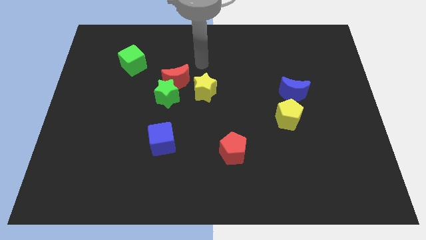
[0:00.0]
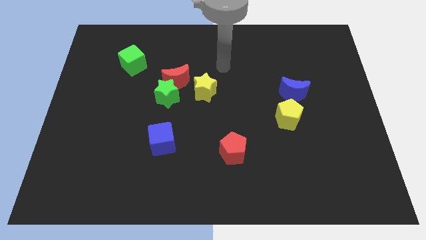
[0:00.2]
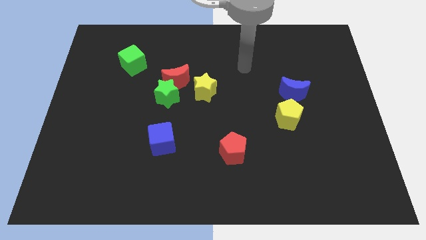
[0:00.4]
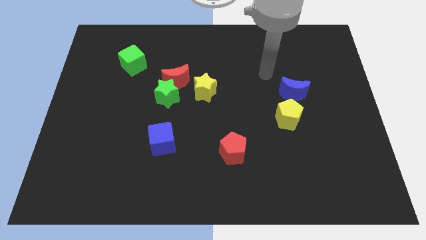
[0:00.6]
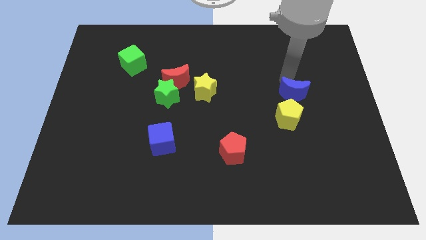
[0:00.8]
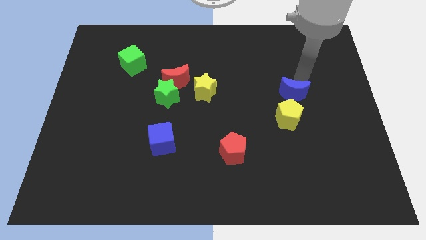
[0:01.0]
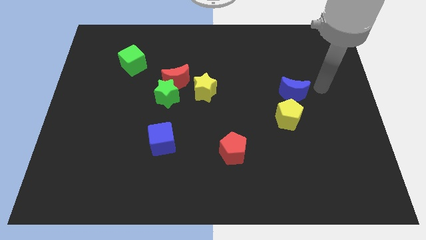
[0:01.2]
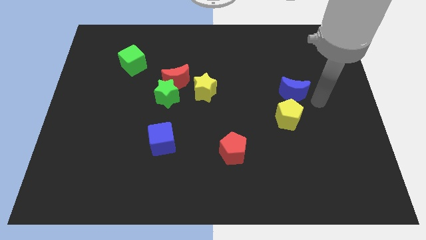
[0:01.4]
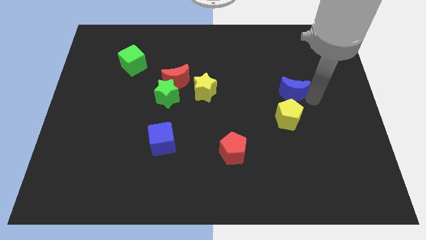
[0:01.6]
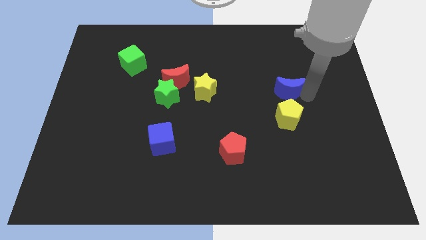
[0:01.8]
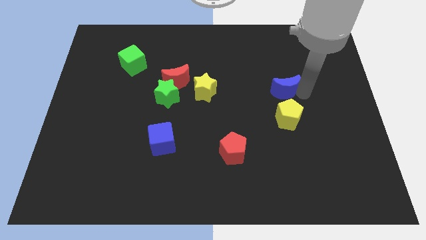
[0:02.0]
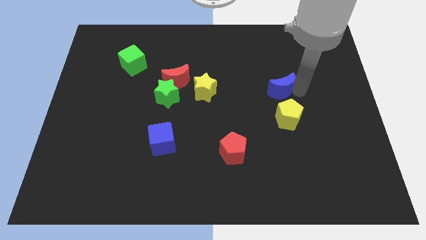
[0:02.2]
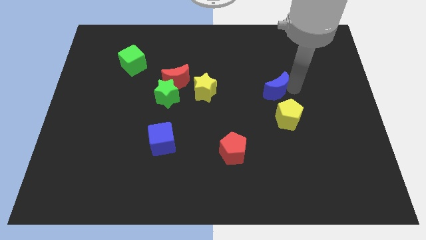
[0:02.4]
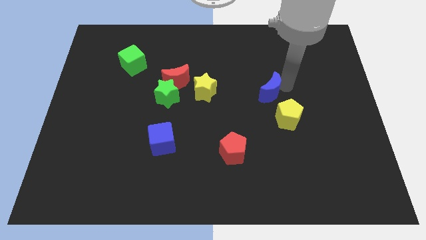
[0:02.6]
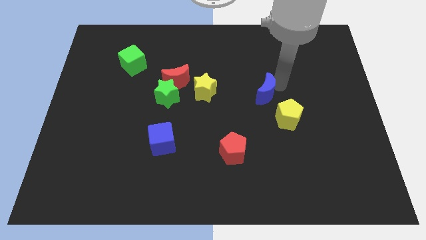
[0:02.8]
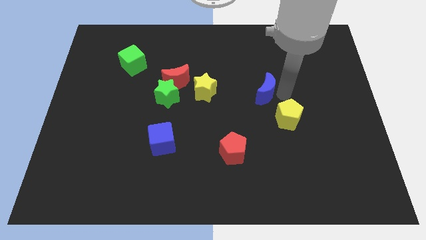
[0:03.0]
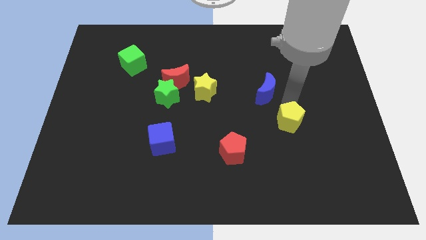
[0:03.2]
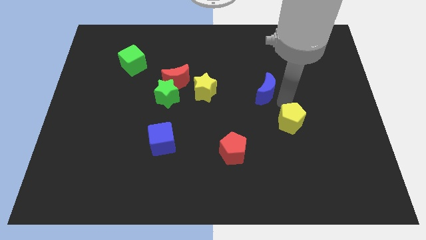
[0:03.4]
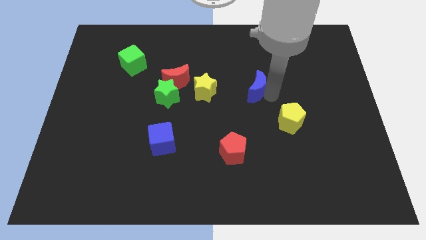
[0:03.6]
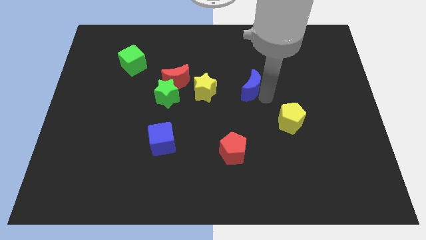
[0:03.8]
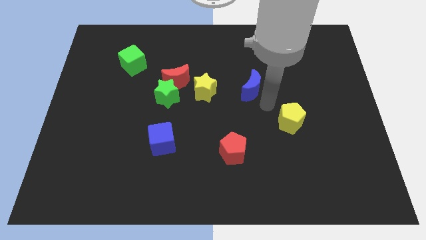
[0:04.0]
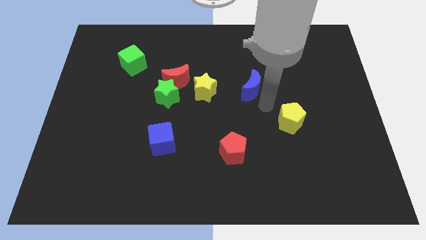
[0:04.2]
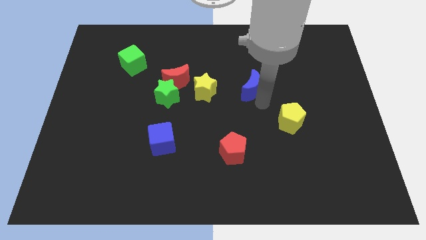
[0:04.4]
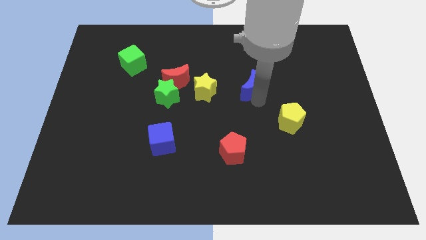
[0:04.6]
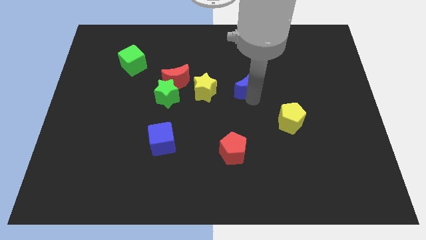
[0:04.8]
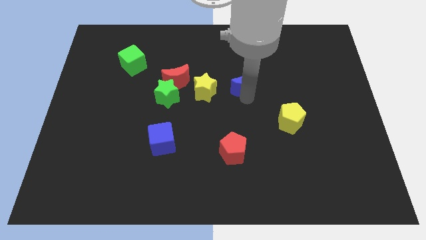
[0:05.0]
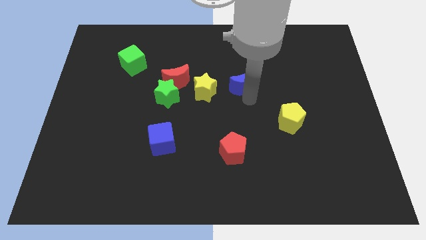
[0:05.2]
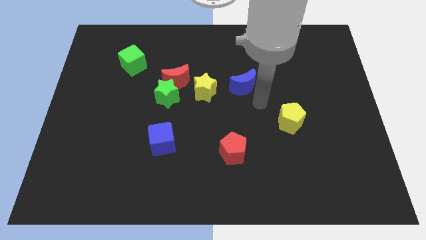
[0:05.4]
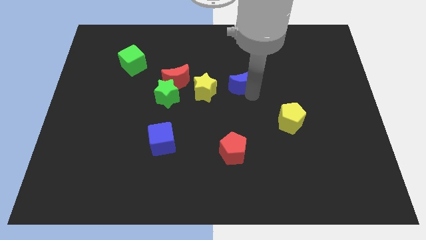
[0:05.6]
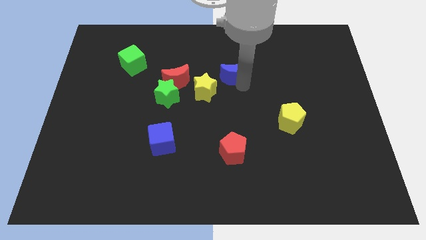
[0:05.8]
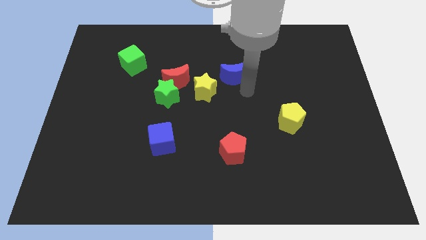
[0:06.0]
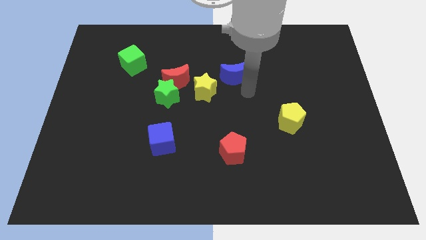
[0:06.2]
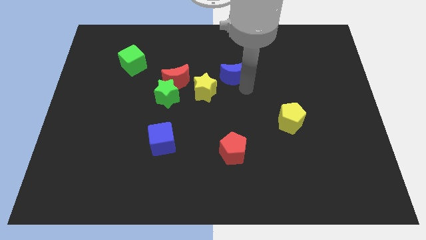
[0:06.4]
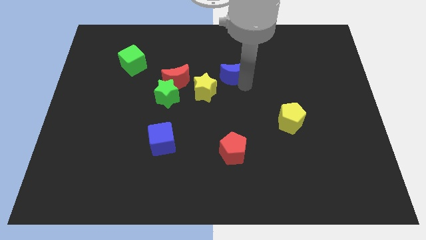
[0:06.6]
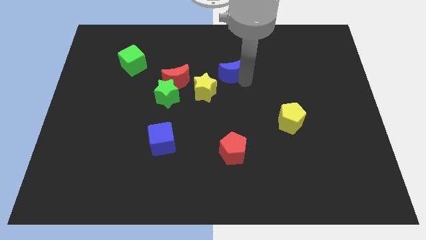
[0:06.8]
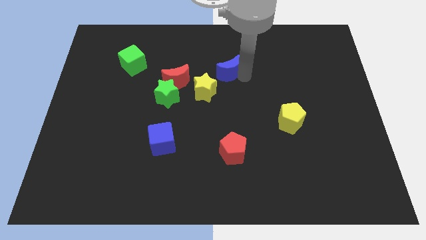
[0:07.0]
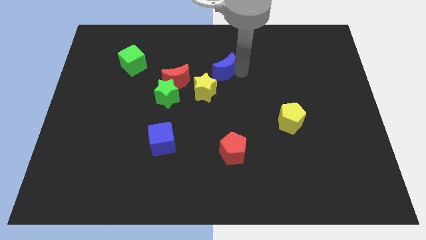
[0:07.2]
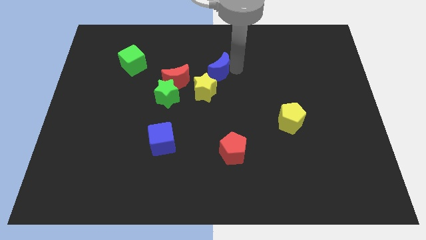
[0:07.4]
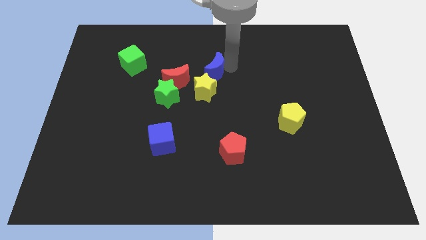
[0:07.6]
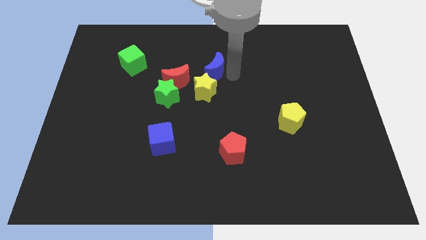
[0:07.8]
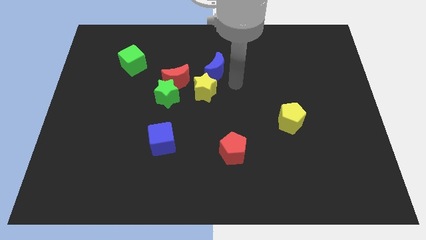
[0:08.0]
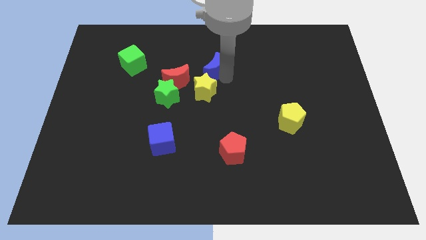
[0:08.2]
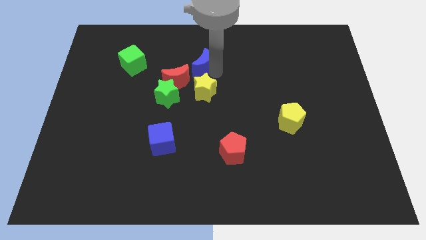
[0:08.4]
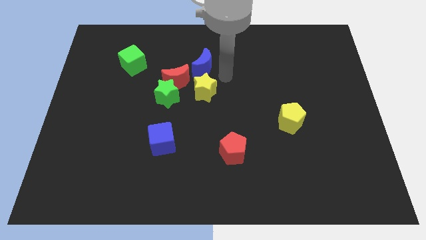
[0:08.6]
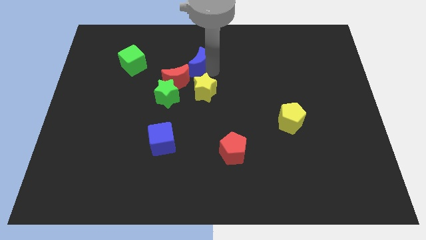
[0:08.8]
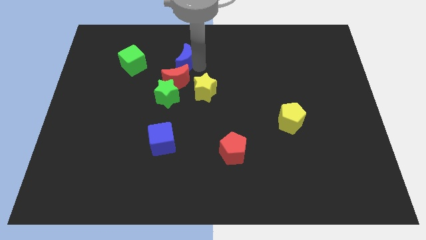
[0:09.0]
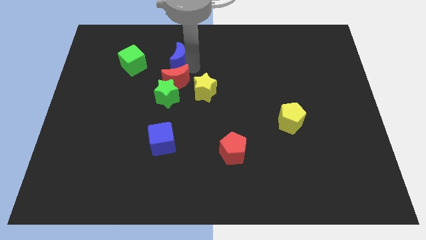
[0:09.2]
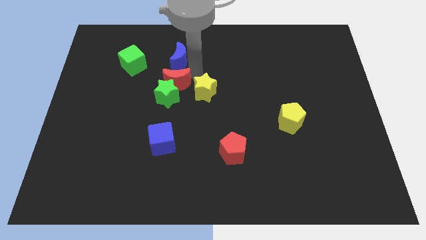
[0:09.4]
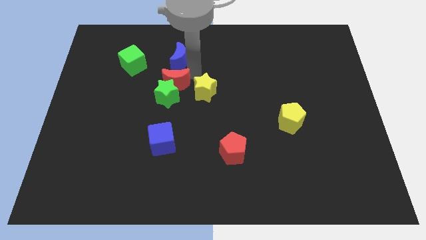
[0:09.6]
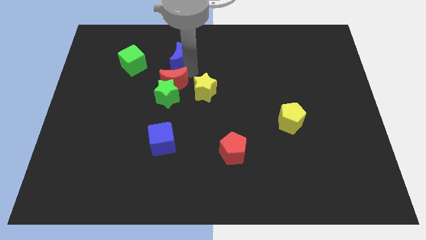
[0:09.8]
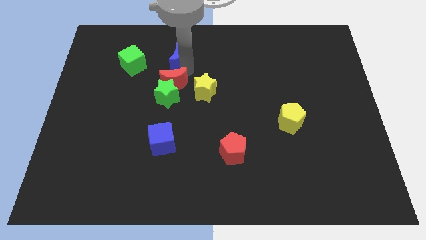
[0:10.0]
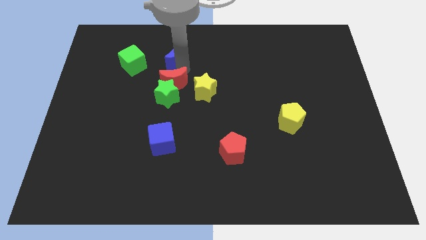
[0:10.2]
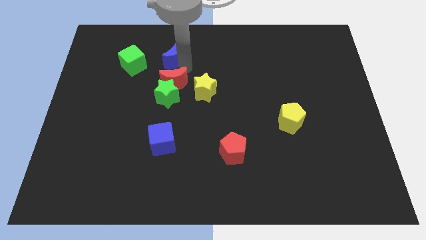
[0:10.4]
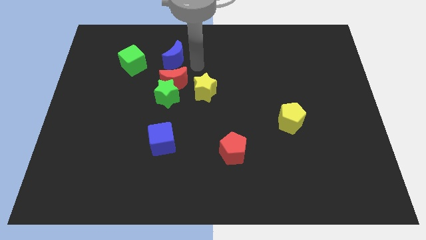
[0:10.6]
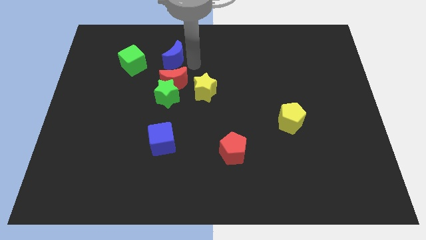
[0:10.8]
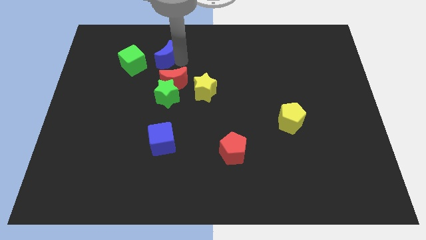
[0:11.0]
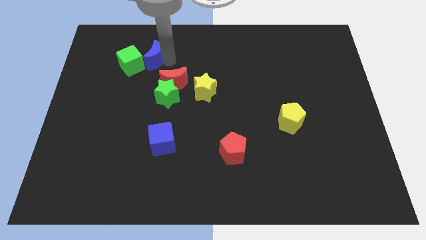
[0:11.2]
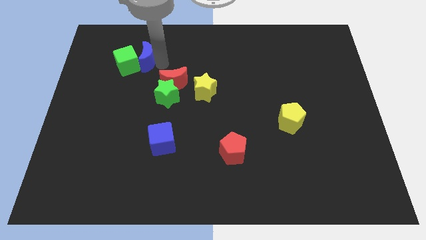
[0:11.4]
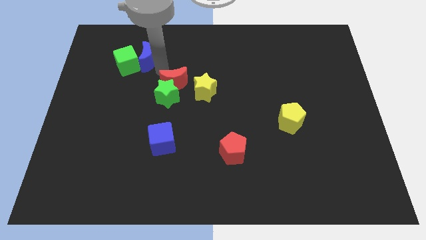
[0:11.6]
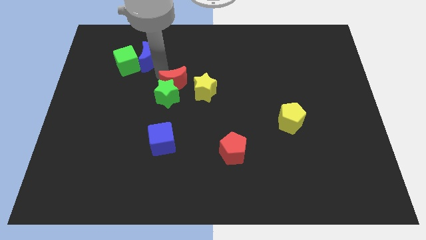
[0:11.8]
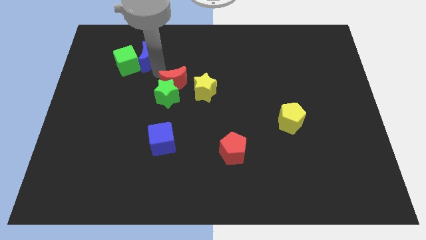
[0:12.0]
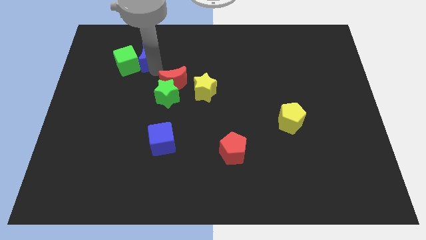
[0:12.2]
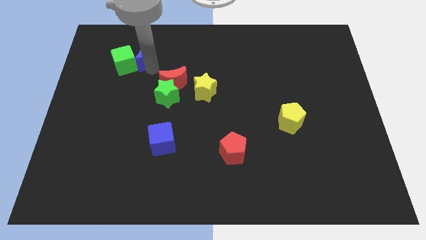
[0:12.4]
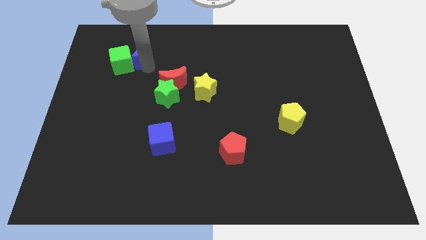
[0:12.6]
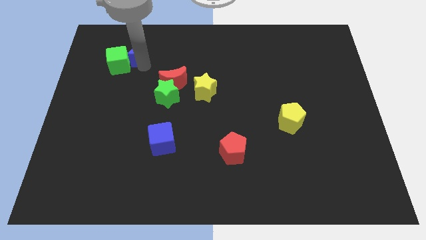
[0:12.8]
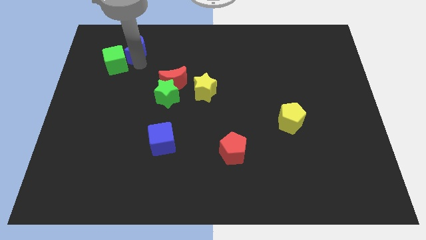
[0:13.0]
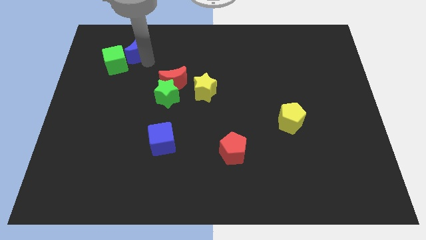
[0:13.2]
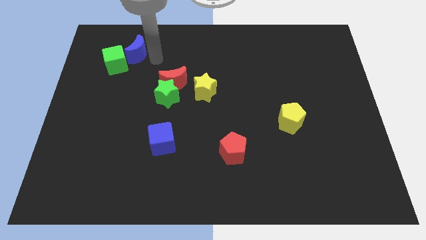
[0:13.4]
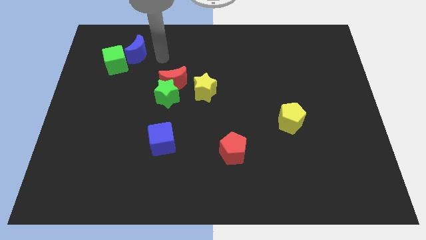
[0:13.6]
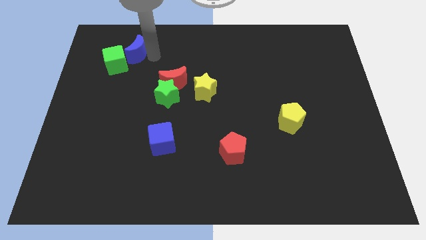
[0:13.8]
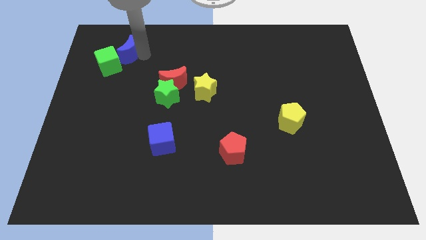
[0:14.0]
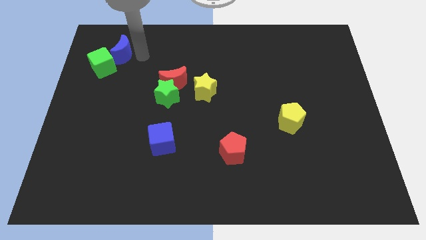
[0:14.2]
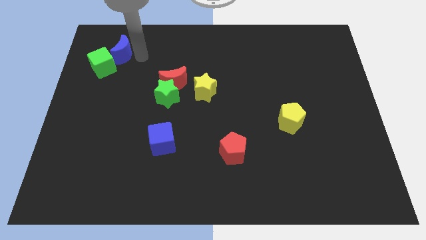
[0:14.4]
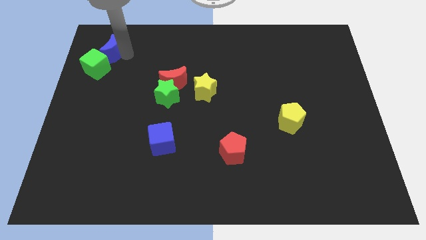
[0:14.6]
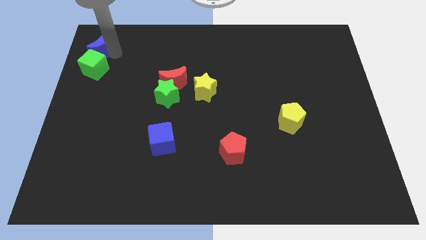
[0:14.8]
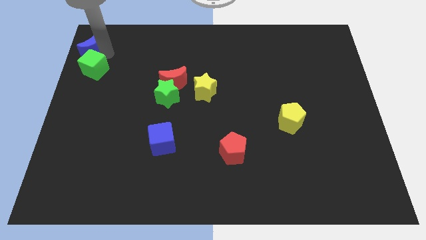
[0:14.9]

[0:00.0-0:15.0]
push the blue moon to the top left of the board
